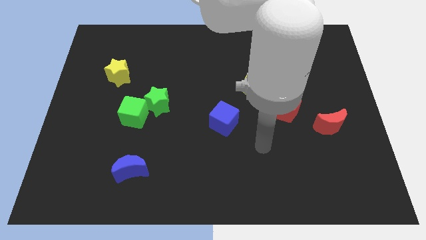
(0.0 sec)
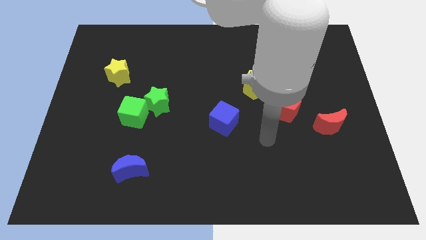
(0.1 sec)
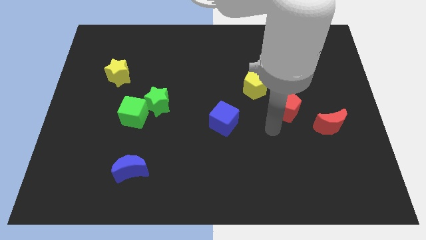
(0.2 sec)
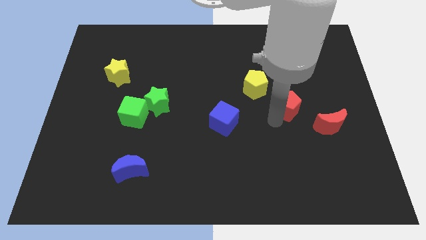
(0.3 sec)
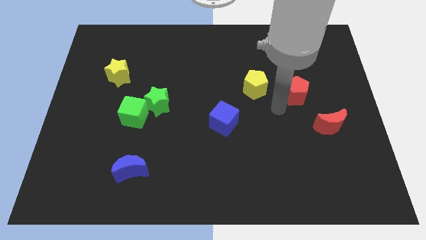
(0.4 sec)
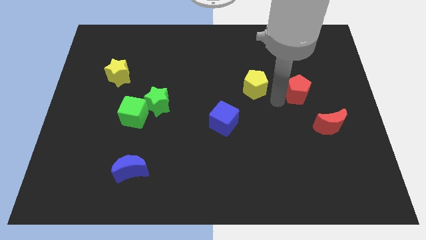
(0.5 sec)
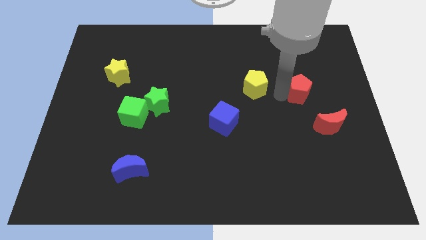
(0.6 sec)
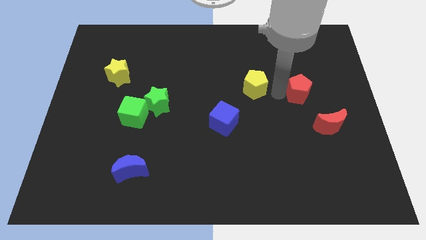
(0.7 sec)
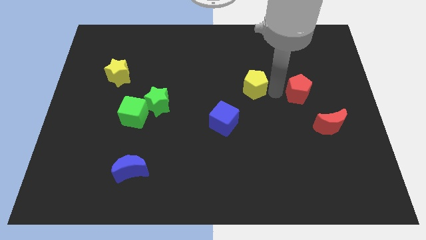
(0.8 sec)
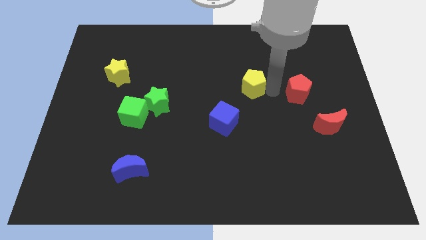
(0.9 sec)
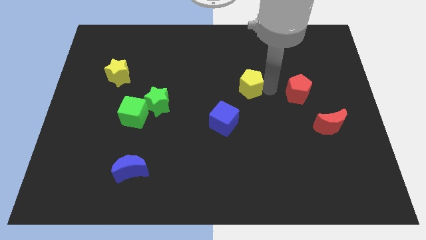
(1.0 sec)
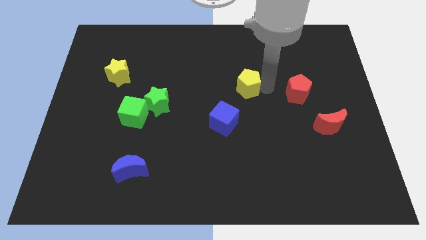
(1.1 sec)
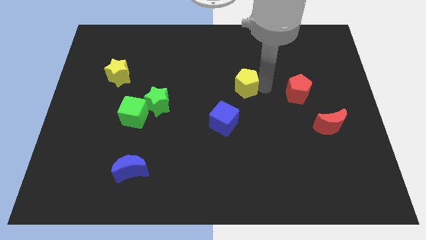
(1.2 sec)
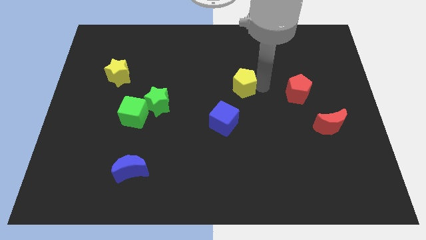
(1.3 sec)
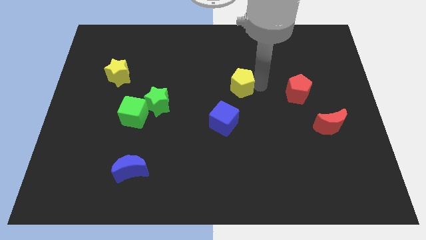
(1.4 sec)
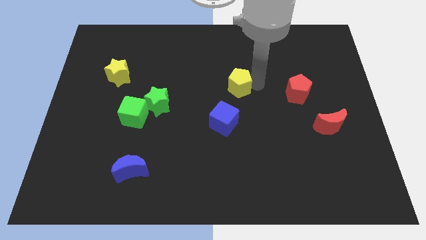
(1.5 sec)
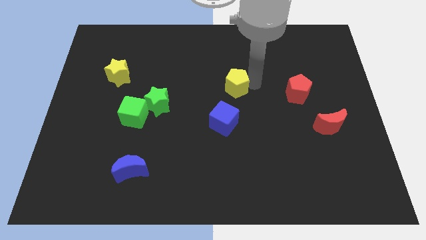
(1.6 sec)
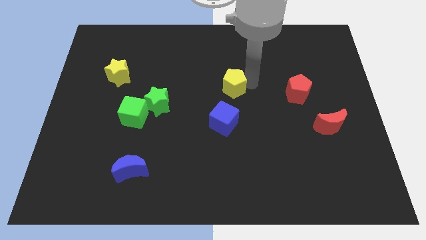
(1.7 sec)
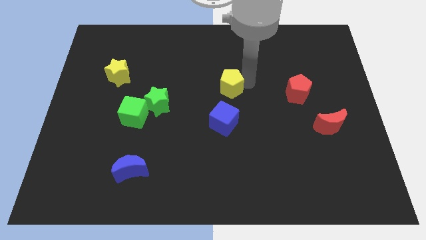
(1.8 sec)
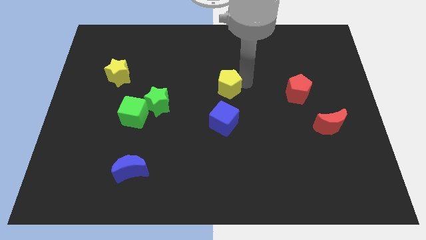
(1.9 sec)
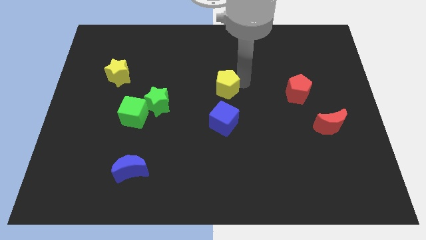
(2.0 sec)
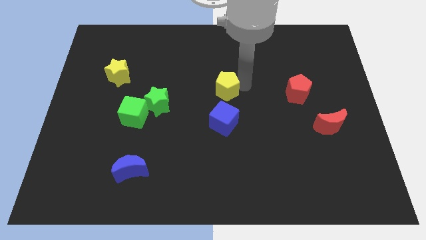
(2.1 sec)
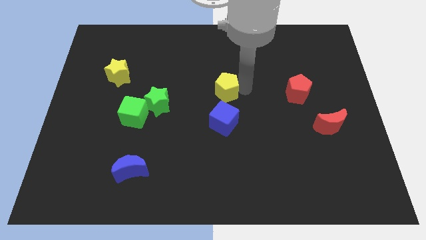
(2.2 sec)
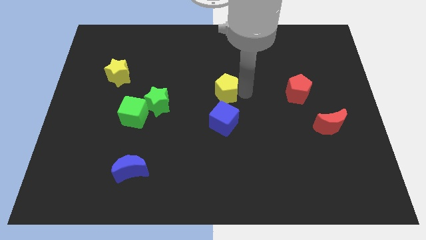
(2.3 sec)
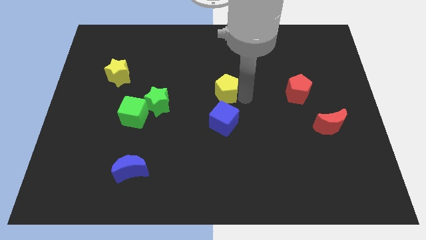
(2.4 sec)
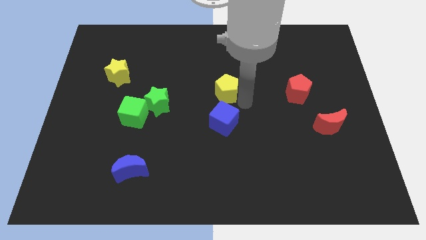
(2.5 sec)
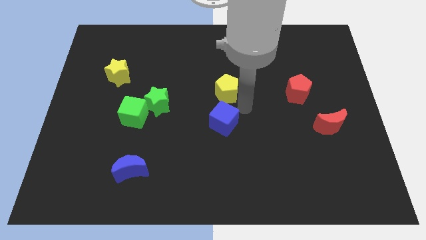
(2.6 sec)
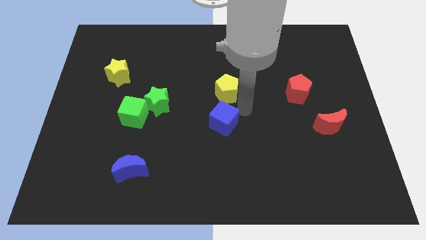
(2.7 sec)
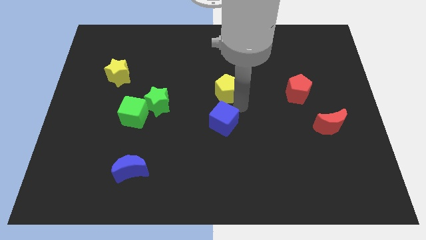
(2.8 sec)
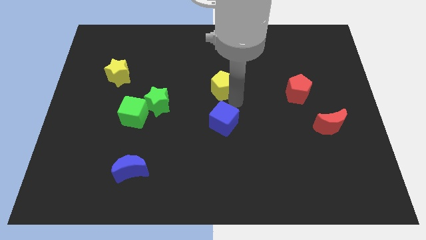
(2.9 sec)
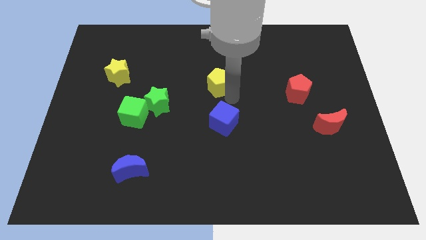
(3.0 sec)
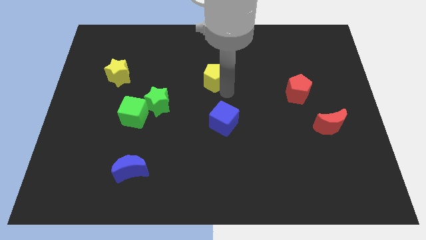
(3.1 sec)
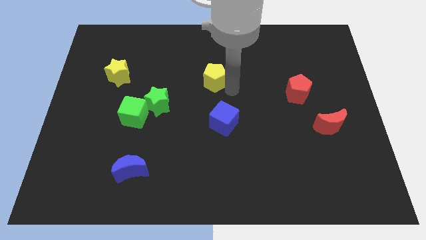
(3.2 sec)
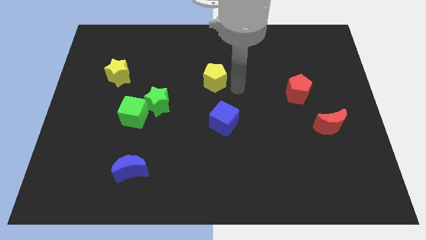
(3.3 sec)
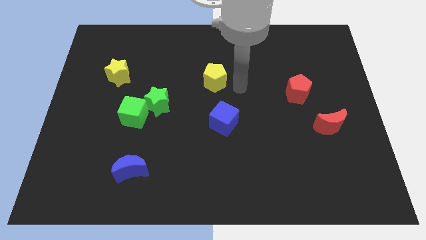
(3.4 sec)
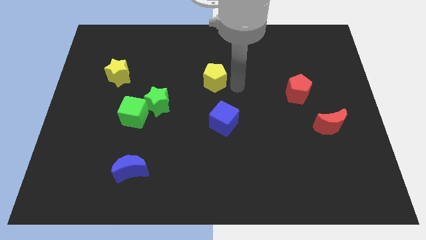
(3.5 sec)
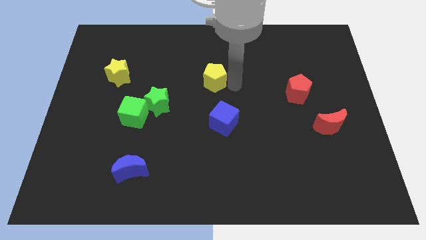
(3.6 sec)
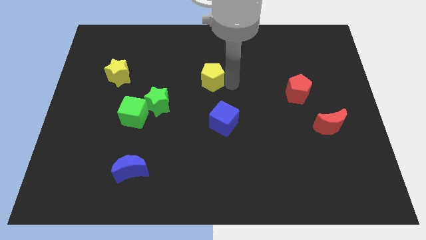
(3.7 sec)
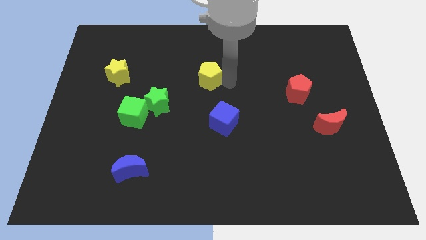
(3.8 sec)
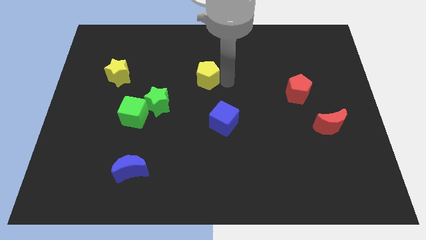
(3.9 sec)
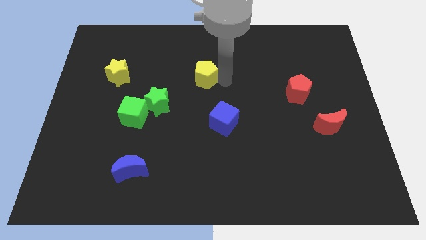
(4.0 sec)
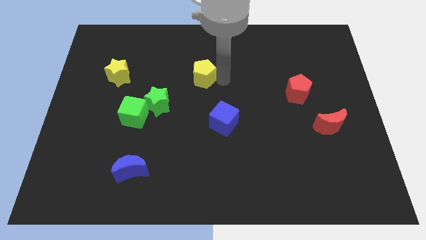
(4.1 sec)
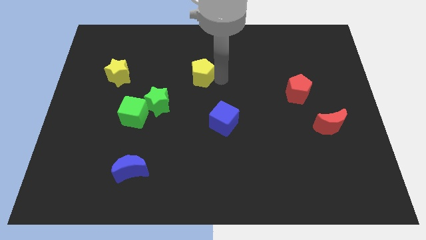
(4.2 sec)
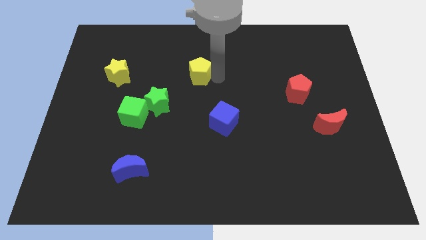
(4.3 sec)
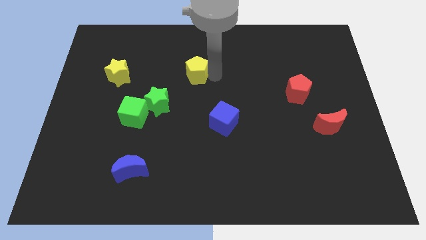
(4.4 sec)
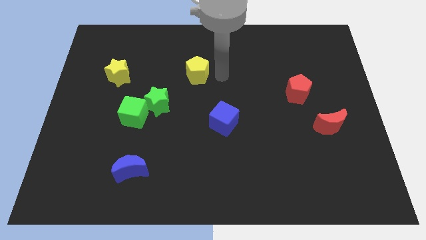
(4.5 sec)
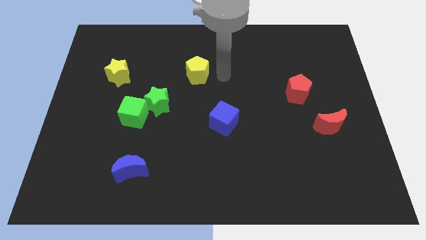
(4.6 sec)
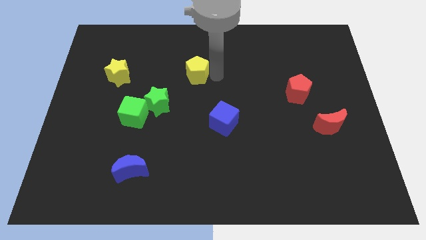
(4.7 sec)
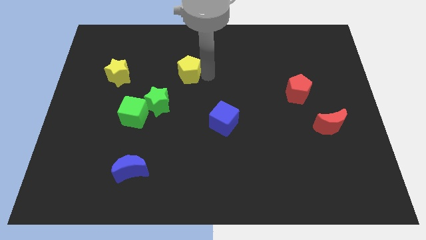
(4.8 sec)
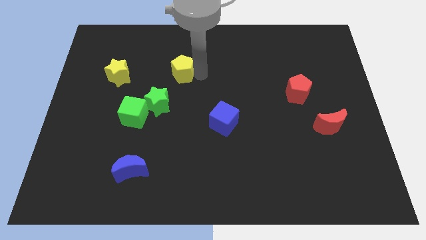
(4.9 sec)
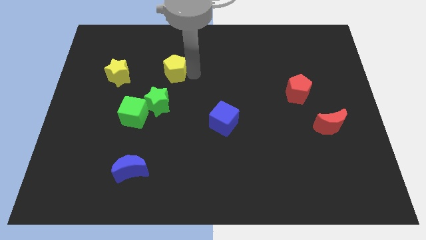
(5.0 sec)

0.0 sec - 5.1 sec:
put the yellow pentagon above the green star

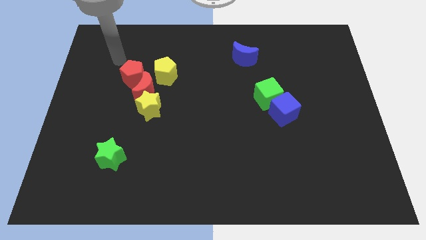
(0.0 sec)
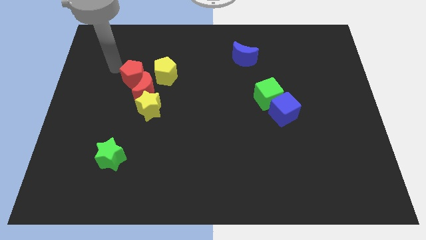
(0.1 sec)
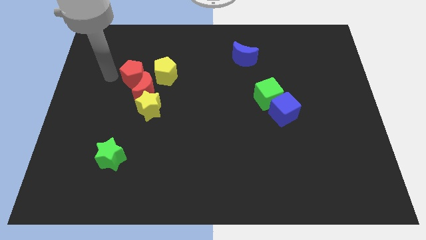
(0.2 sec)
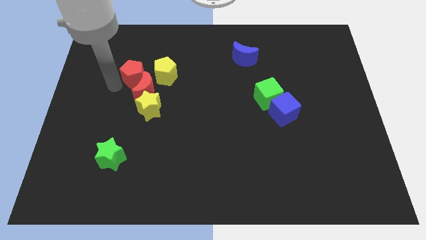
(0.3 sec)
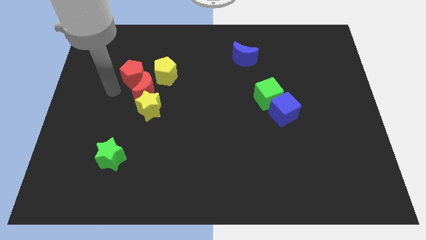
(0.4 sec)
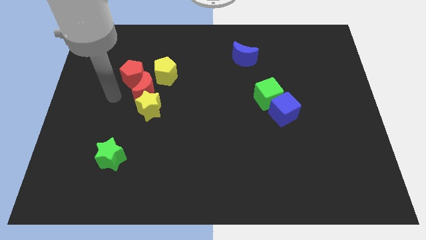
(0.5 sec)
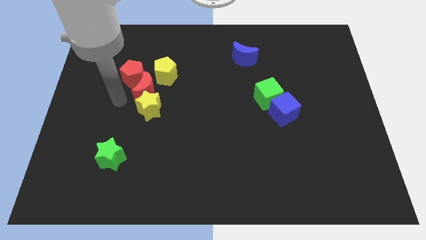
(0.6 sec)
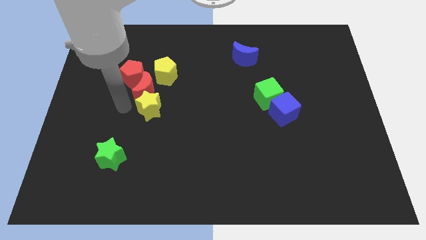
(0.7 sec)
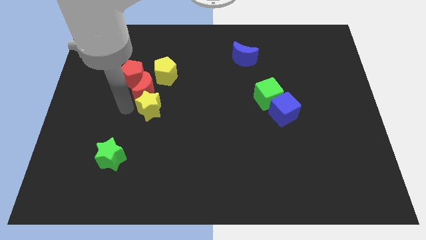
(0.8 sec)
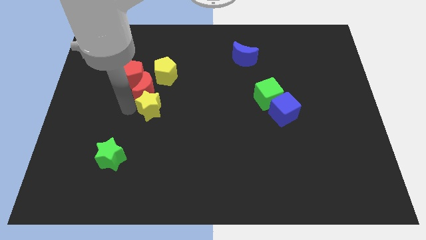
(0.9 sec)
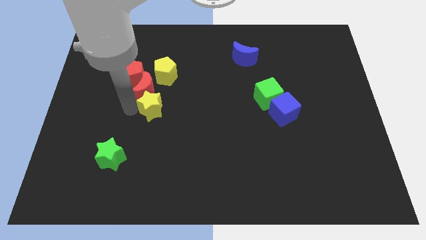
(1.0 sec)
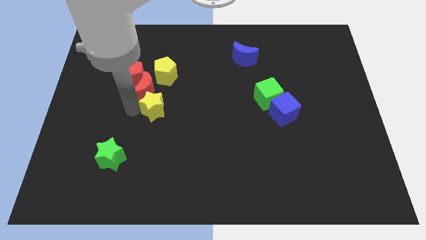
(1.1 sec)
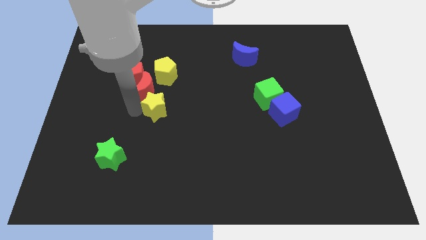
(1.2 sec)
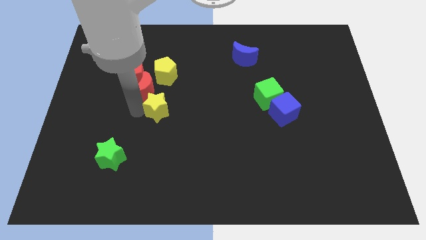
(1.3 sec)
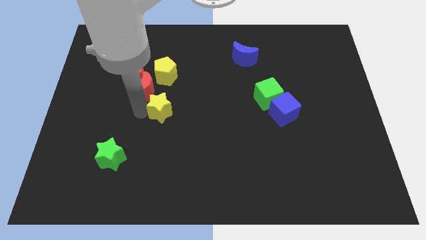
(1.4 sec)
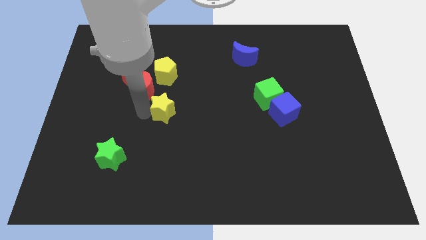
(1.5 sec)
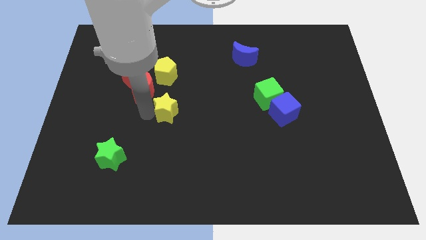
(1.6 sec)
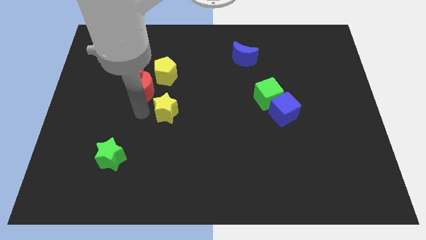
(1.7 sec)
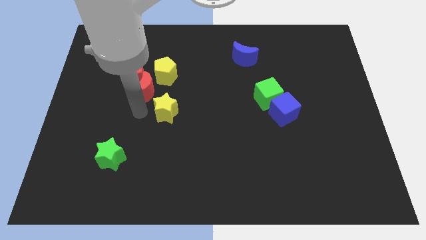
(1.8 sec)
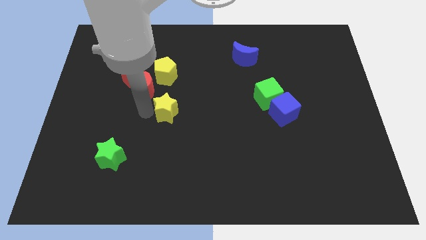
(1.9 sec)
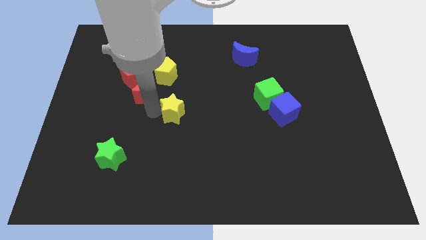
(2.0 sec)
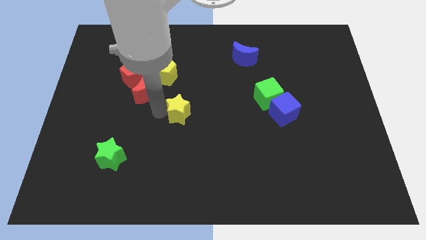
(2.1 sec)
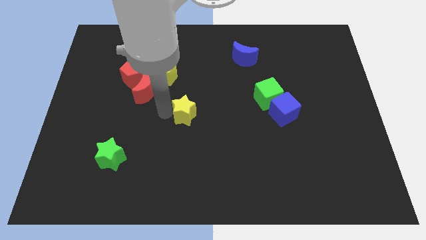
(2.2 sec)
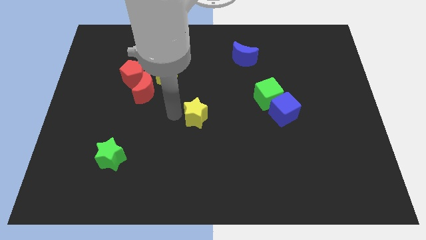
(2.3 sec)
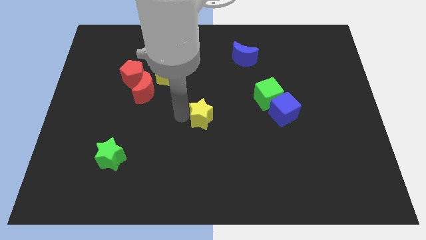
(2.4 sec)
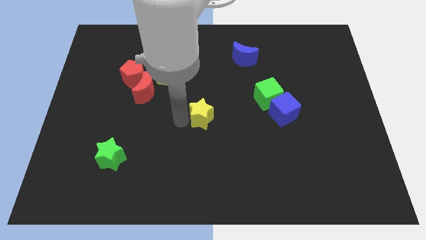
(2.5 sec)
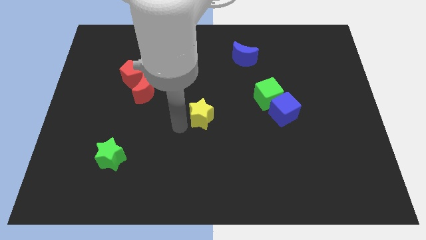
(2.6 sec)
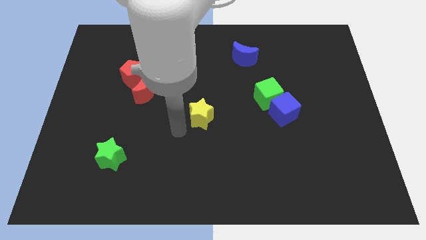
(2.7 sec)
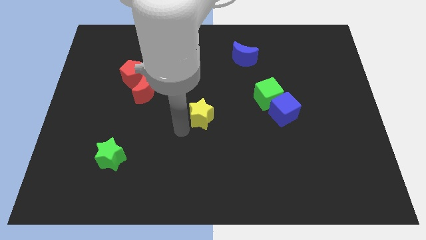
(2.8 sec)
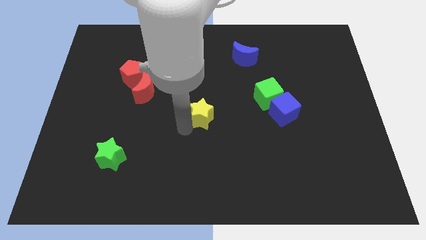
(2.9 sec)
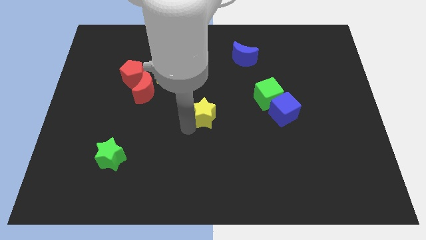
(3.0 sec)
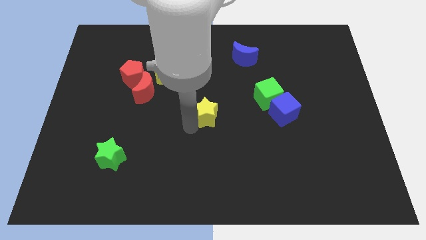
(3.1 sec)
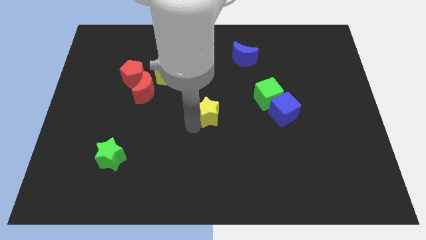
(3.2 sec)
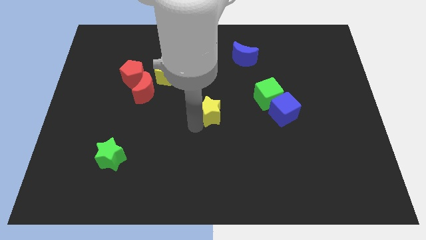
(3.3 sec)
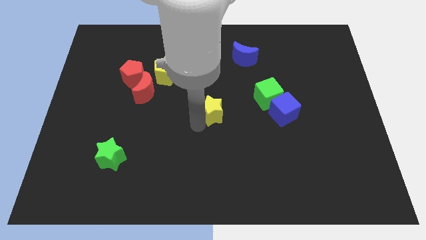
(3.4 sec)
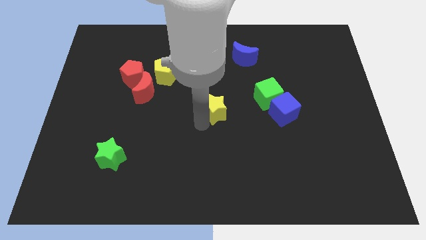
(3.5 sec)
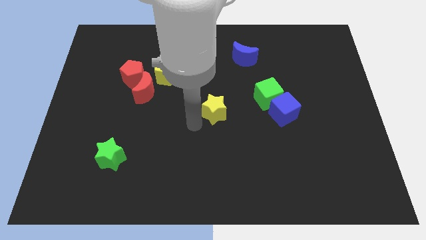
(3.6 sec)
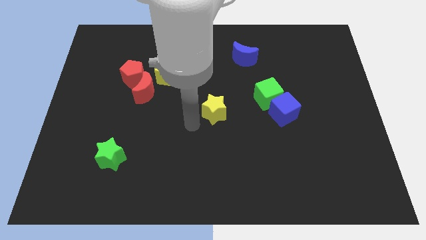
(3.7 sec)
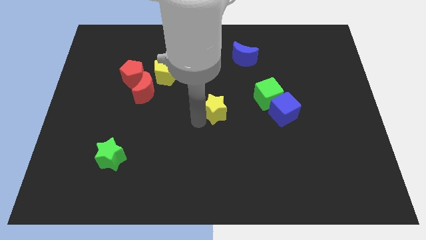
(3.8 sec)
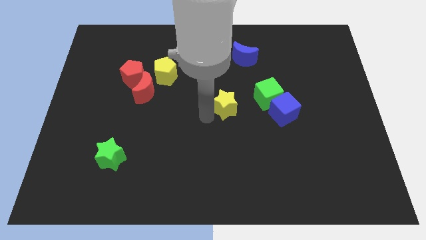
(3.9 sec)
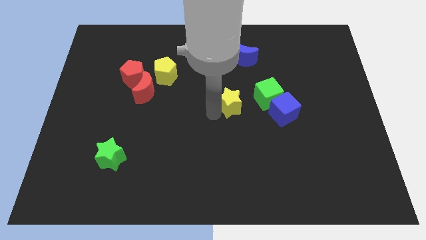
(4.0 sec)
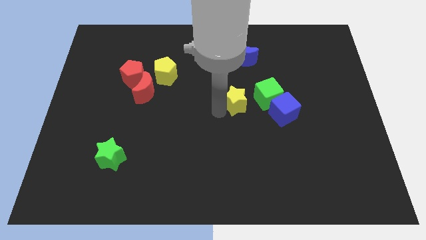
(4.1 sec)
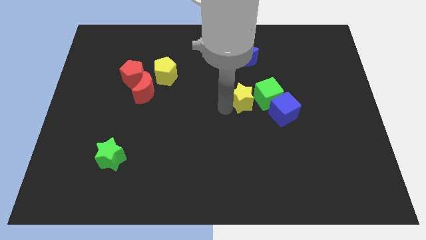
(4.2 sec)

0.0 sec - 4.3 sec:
push the yellow star to the top left side of the blue cube
